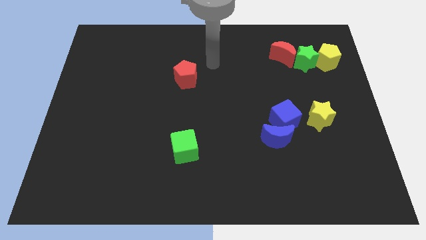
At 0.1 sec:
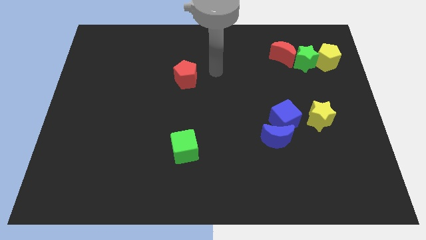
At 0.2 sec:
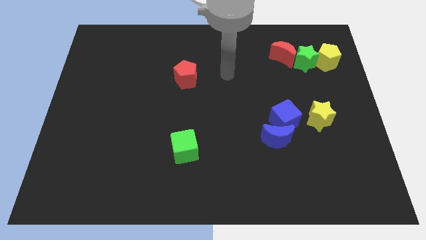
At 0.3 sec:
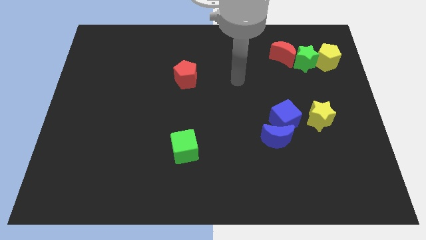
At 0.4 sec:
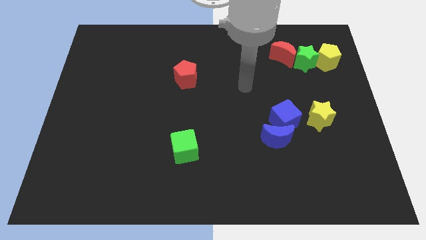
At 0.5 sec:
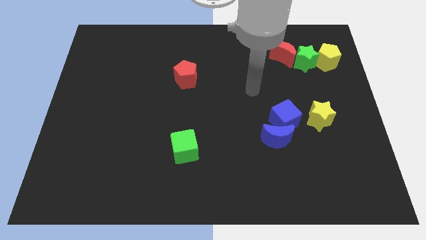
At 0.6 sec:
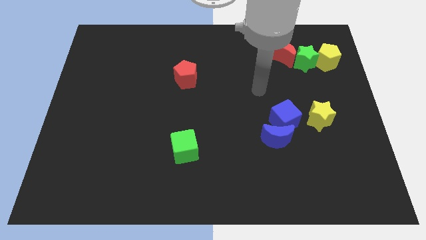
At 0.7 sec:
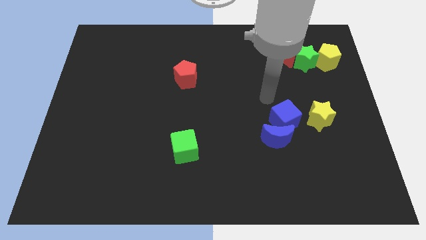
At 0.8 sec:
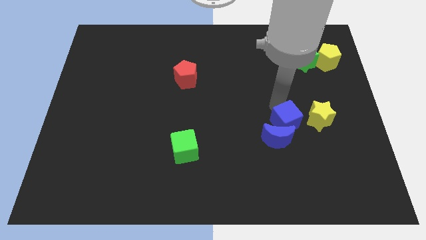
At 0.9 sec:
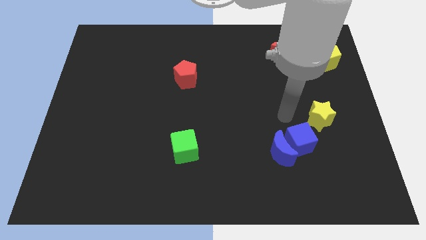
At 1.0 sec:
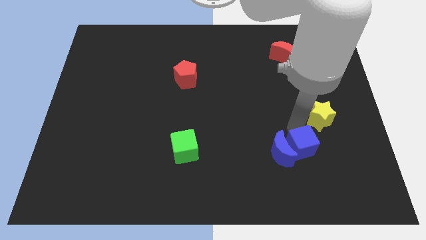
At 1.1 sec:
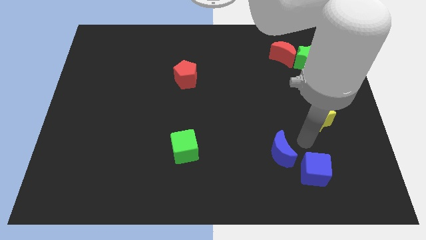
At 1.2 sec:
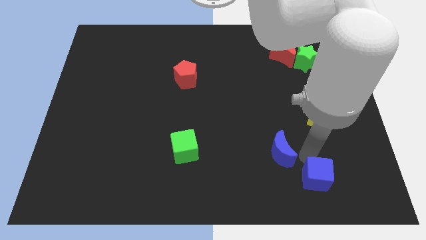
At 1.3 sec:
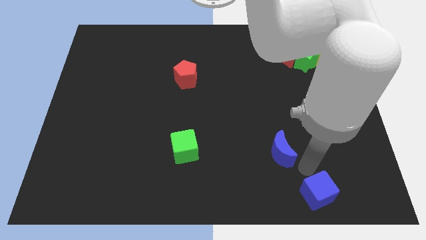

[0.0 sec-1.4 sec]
pull the blue moon apart from the blue cube

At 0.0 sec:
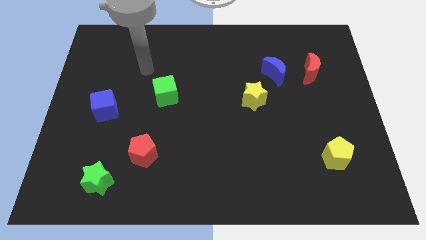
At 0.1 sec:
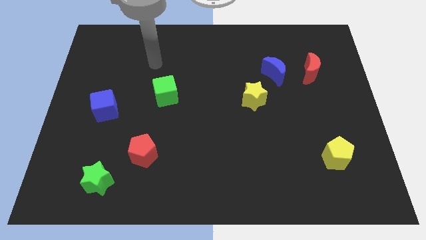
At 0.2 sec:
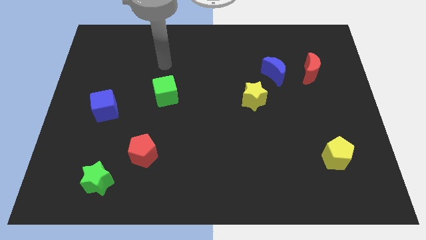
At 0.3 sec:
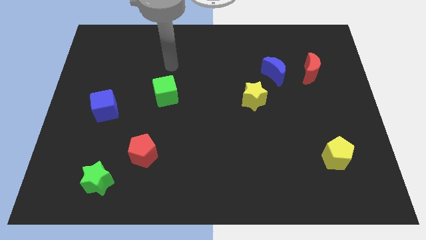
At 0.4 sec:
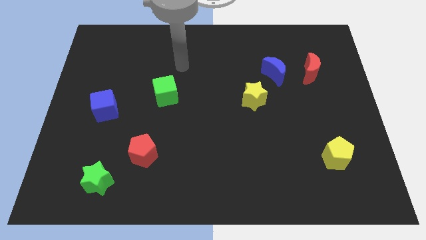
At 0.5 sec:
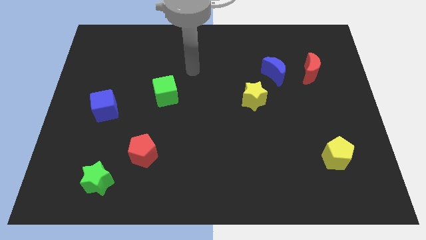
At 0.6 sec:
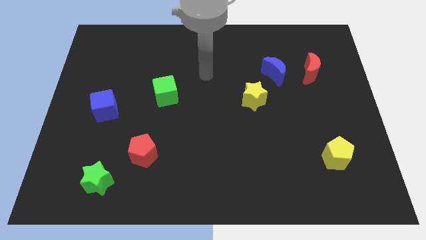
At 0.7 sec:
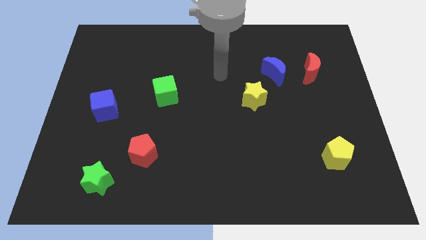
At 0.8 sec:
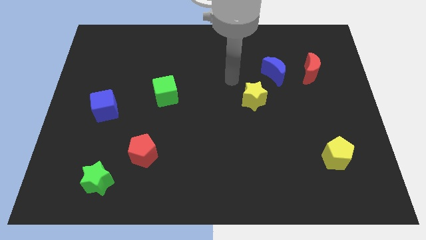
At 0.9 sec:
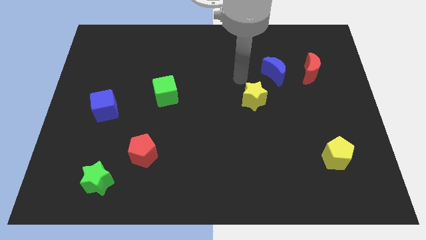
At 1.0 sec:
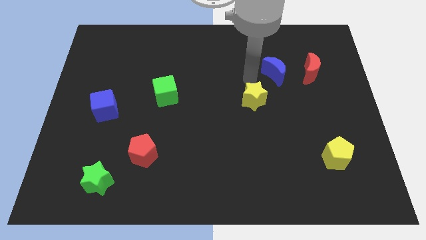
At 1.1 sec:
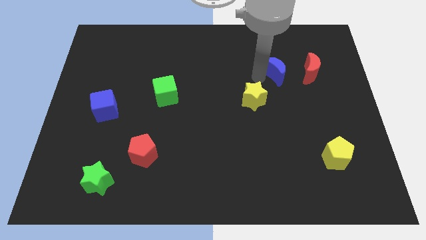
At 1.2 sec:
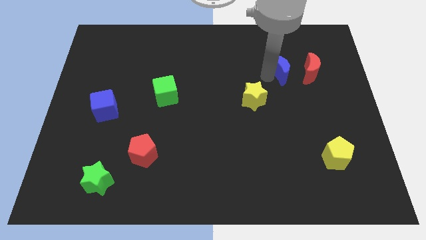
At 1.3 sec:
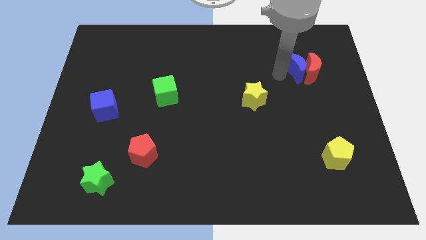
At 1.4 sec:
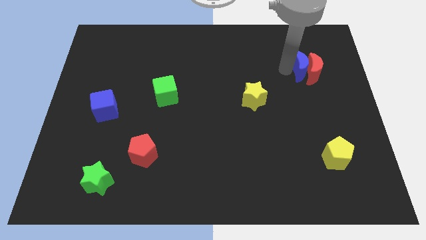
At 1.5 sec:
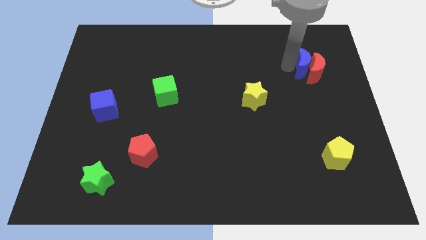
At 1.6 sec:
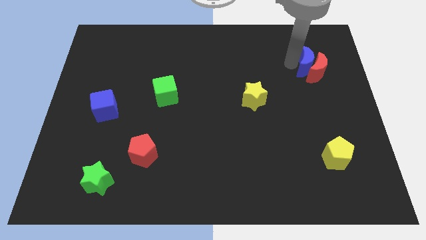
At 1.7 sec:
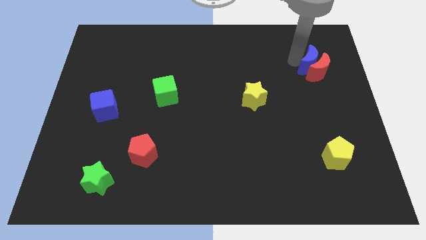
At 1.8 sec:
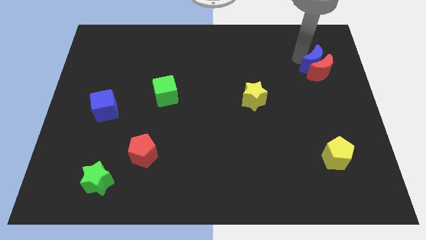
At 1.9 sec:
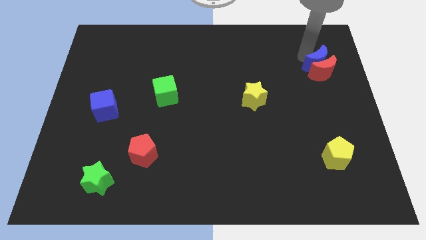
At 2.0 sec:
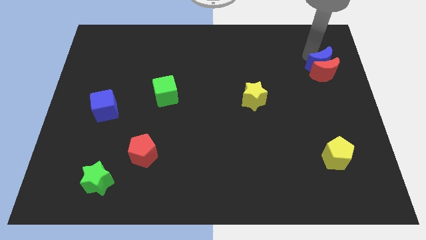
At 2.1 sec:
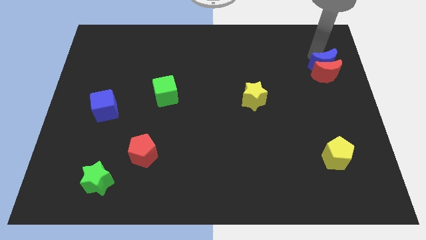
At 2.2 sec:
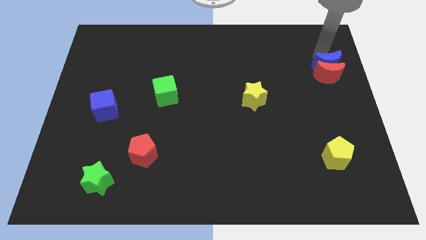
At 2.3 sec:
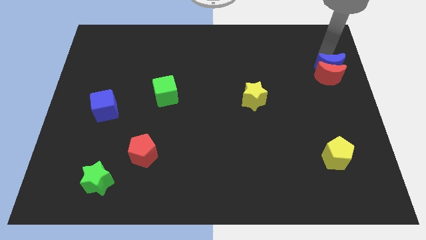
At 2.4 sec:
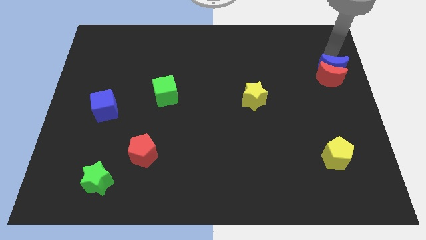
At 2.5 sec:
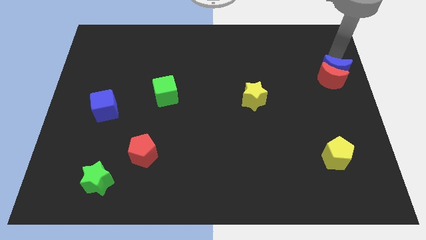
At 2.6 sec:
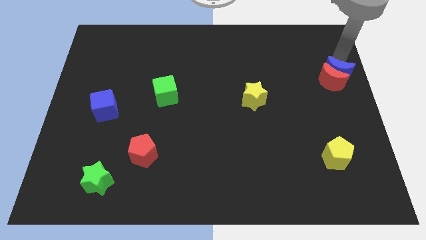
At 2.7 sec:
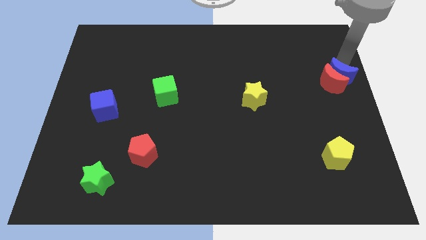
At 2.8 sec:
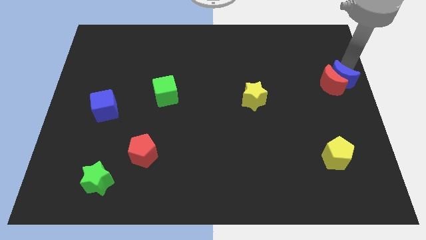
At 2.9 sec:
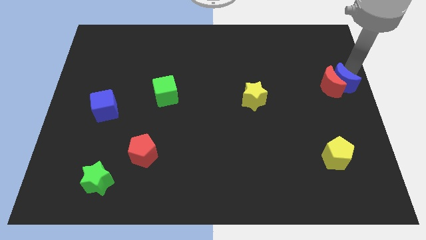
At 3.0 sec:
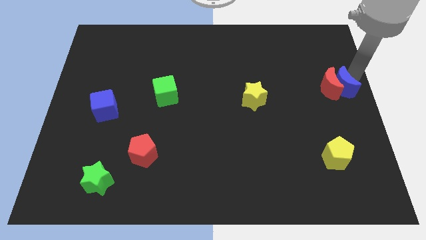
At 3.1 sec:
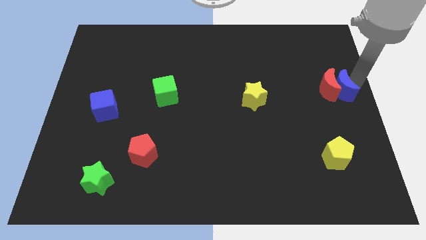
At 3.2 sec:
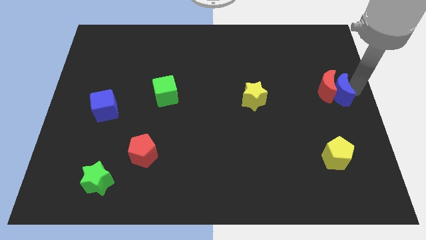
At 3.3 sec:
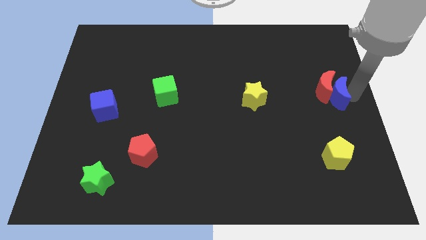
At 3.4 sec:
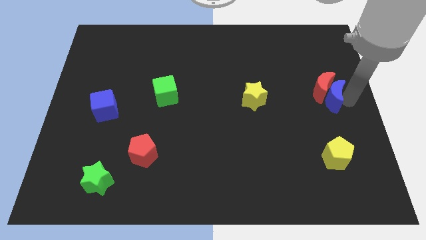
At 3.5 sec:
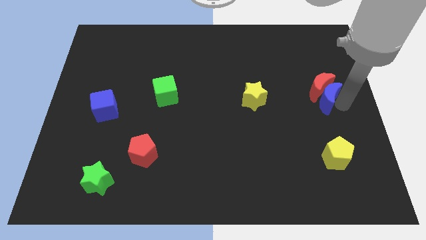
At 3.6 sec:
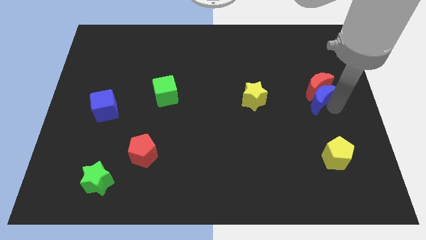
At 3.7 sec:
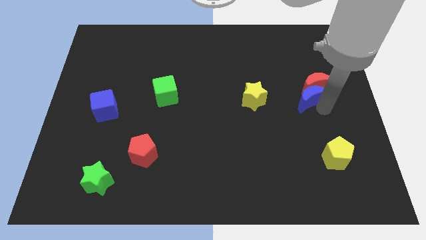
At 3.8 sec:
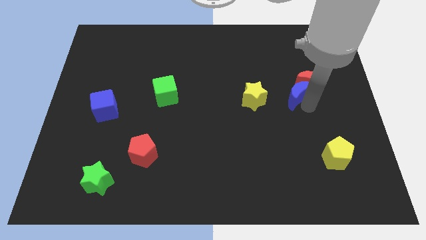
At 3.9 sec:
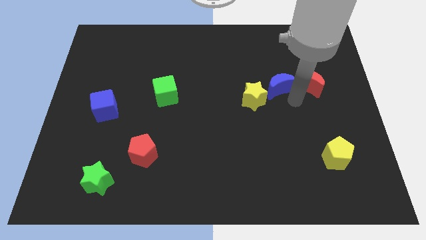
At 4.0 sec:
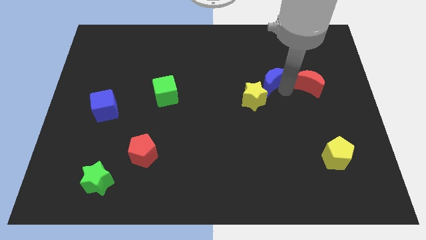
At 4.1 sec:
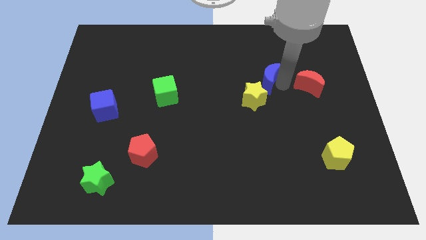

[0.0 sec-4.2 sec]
separate the red moon from the blue moon

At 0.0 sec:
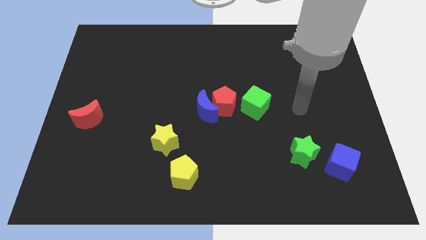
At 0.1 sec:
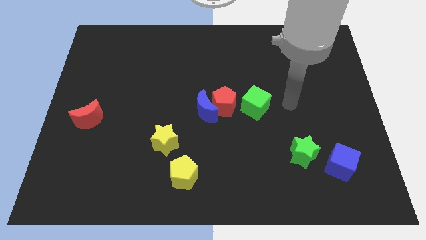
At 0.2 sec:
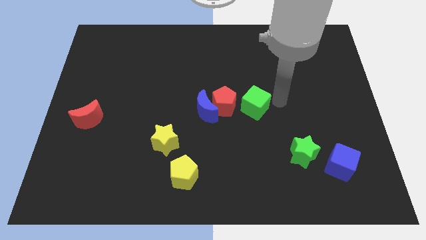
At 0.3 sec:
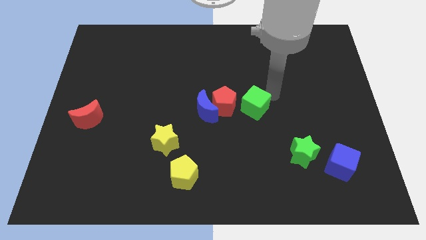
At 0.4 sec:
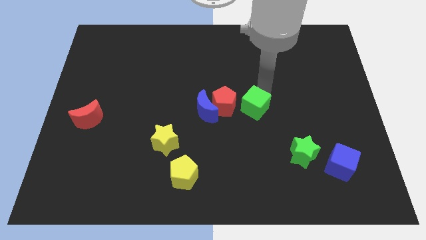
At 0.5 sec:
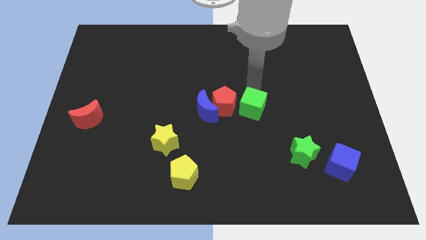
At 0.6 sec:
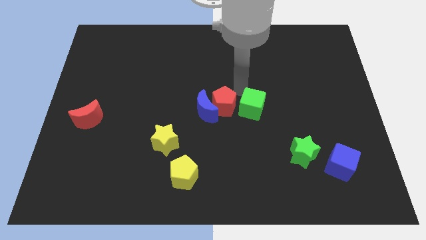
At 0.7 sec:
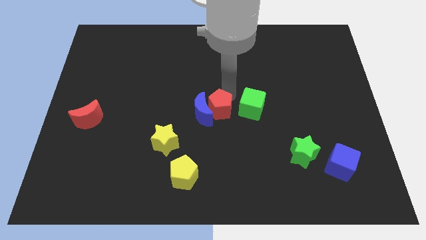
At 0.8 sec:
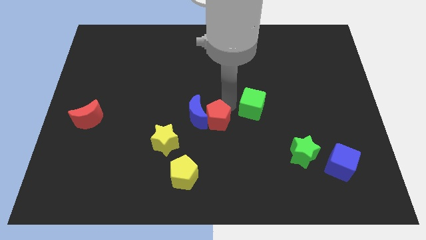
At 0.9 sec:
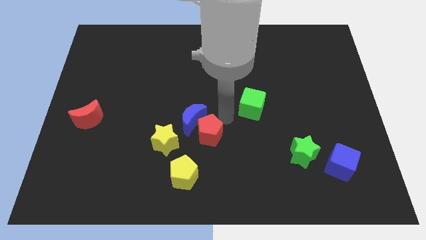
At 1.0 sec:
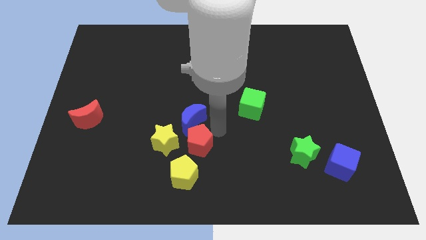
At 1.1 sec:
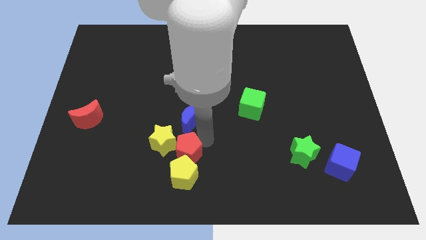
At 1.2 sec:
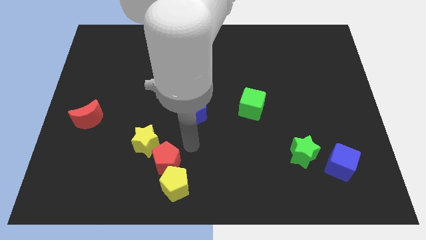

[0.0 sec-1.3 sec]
separate the blue moon from the red pentagon

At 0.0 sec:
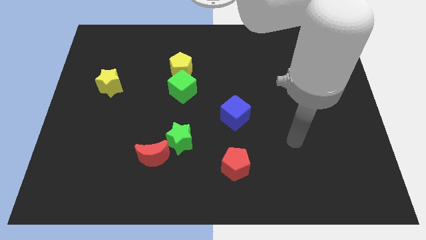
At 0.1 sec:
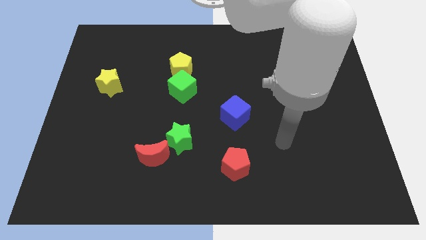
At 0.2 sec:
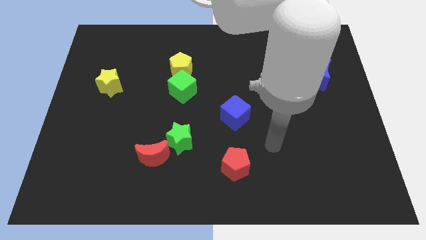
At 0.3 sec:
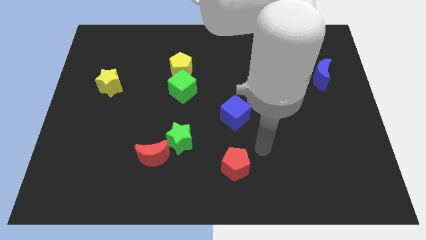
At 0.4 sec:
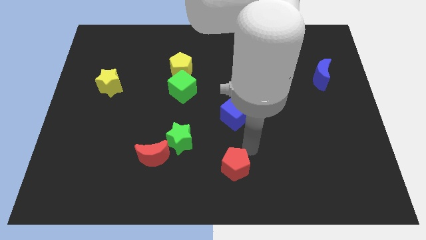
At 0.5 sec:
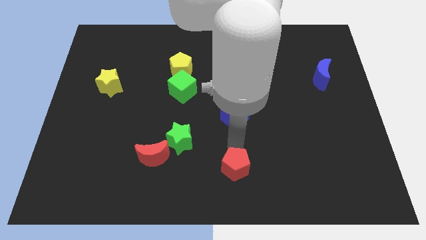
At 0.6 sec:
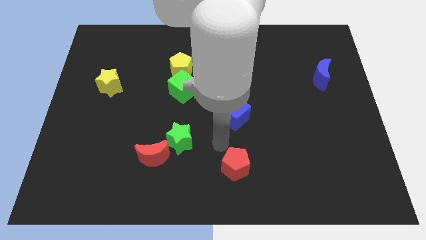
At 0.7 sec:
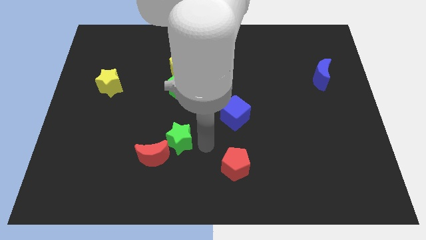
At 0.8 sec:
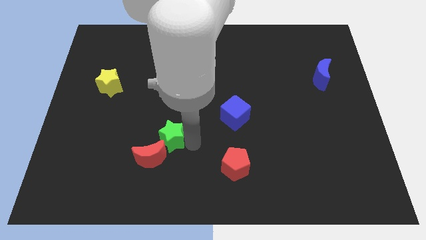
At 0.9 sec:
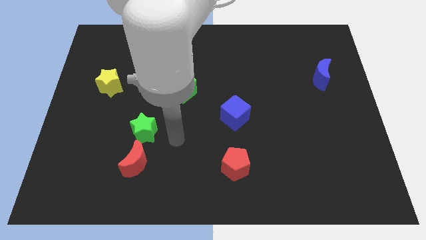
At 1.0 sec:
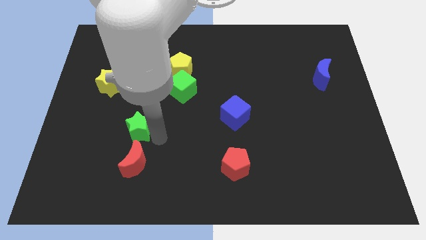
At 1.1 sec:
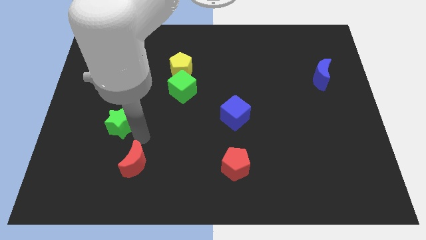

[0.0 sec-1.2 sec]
pull the red moon apart from the green star

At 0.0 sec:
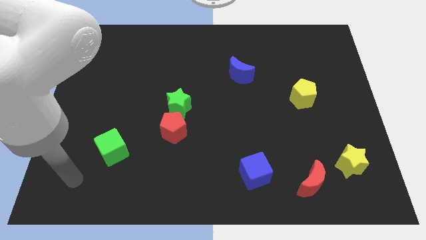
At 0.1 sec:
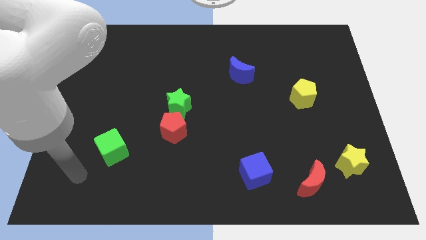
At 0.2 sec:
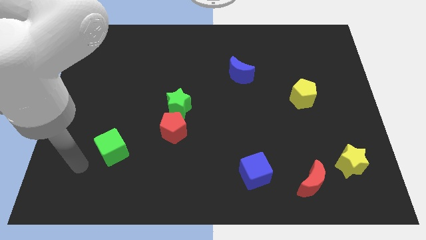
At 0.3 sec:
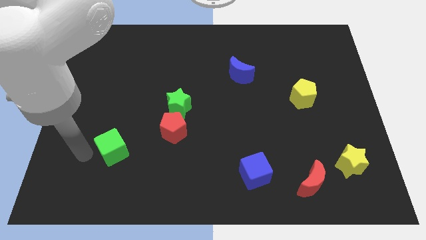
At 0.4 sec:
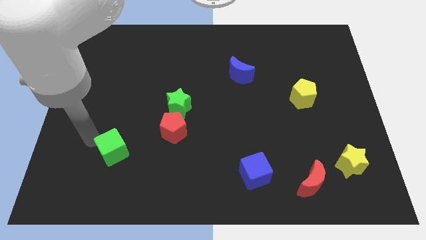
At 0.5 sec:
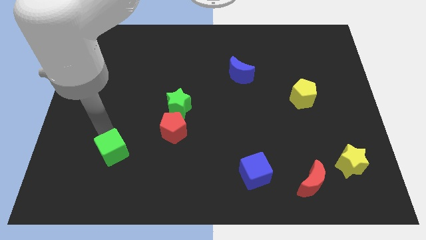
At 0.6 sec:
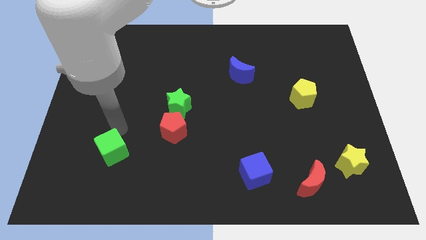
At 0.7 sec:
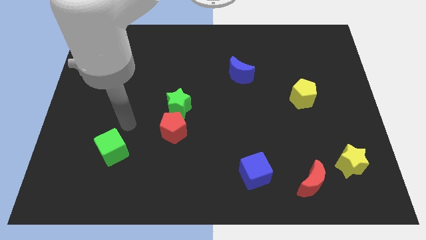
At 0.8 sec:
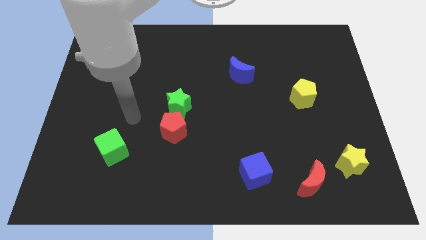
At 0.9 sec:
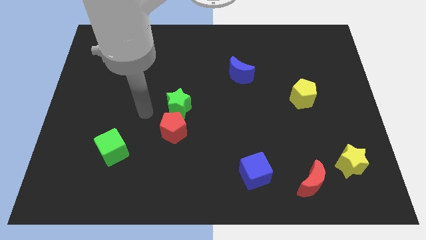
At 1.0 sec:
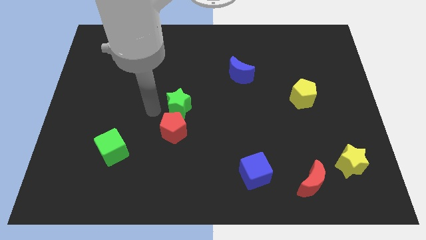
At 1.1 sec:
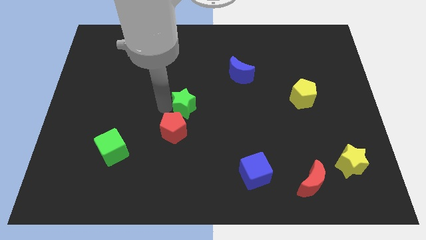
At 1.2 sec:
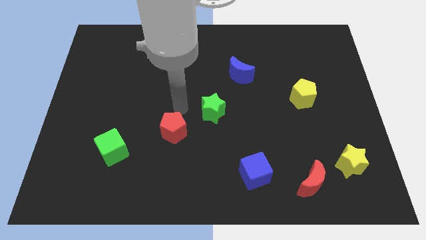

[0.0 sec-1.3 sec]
pull the red pentagon apart from the green star
